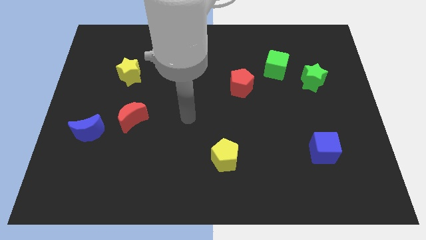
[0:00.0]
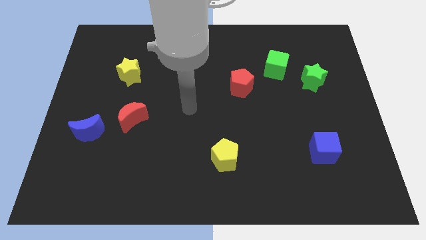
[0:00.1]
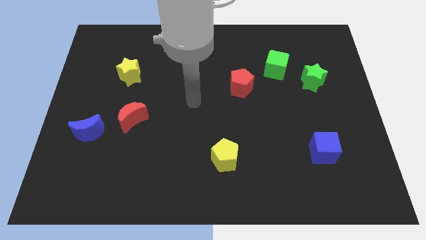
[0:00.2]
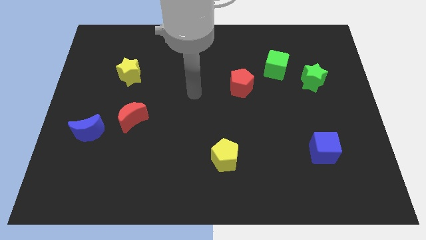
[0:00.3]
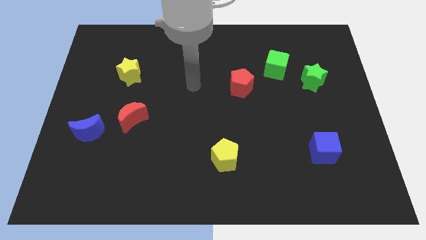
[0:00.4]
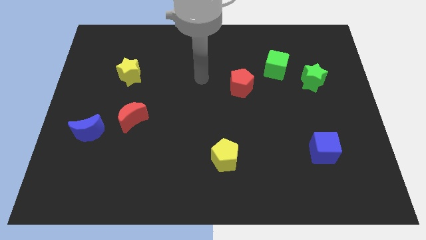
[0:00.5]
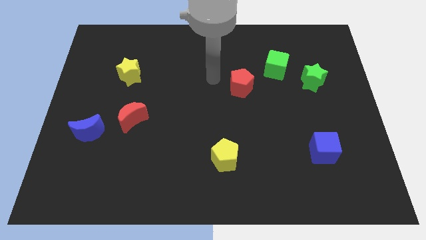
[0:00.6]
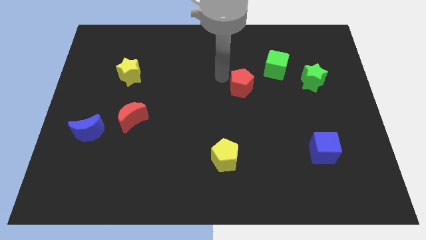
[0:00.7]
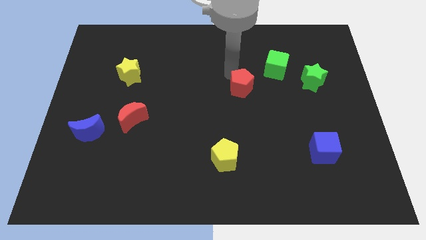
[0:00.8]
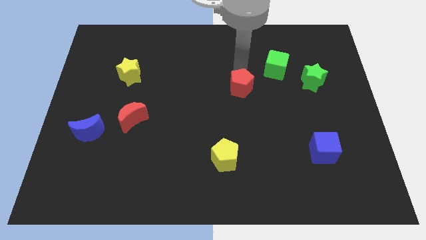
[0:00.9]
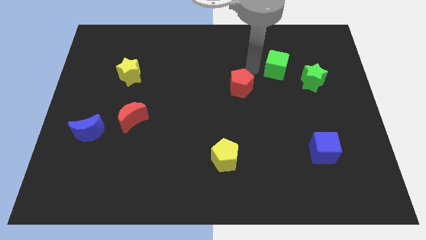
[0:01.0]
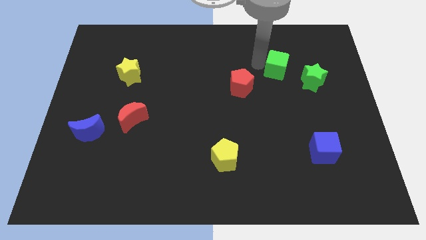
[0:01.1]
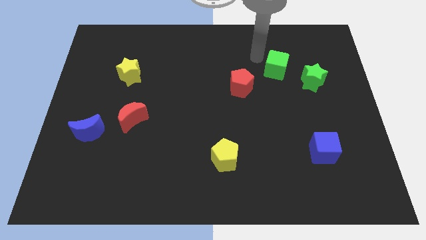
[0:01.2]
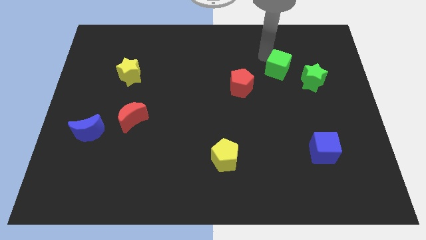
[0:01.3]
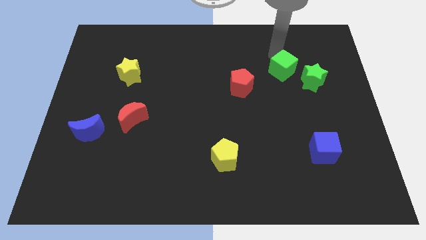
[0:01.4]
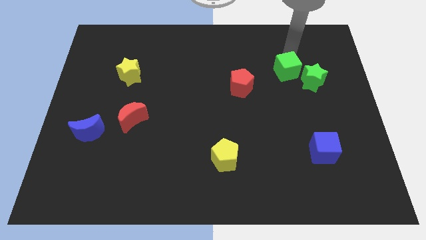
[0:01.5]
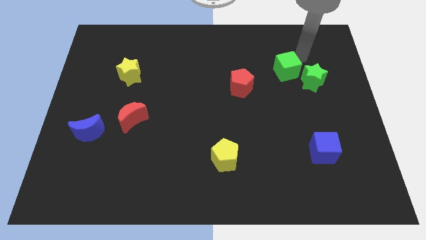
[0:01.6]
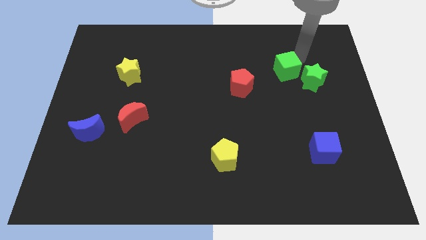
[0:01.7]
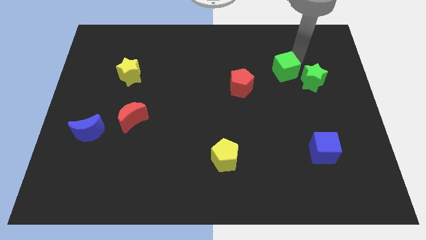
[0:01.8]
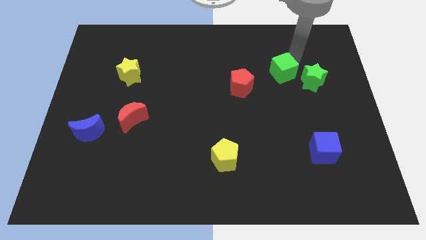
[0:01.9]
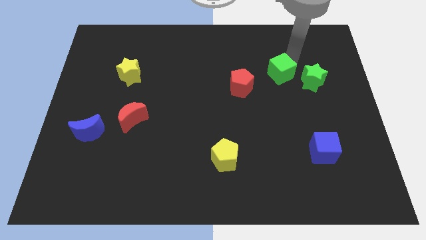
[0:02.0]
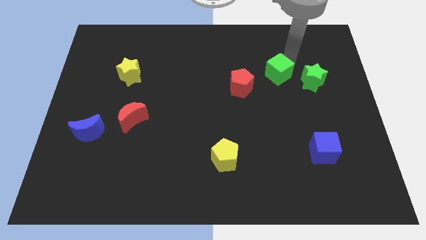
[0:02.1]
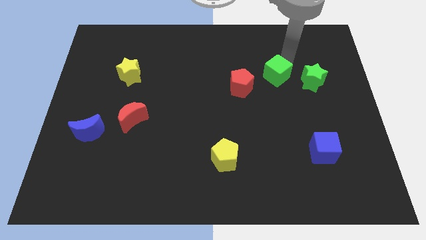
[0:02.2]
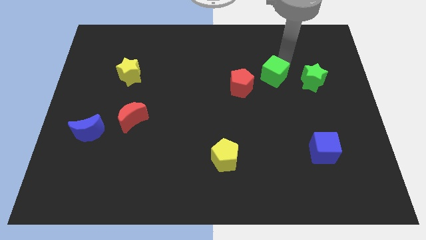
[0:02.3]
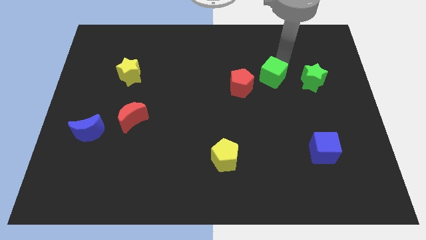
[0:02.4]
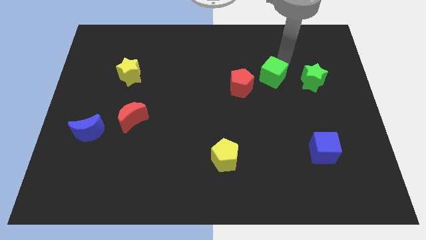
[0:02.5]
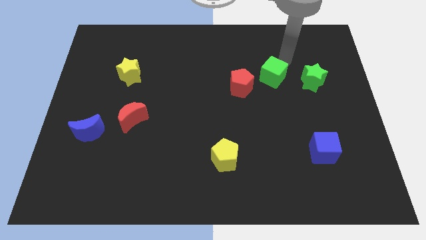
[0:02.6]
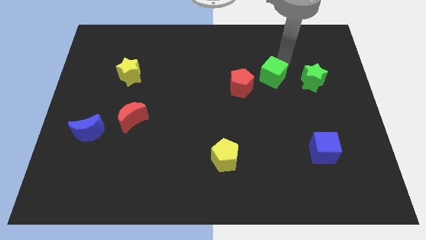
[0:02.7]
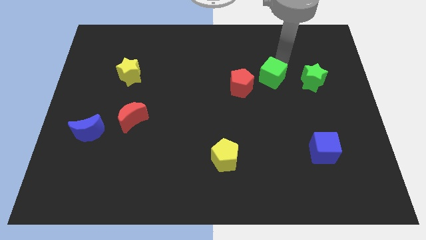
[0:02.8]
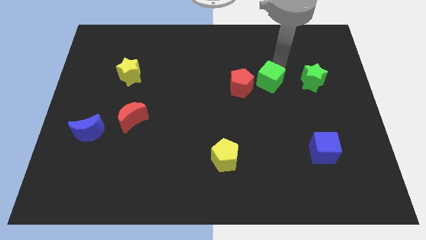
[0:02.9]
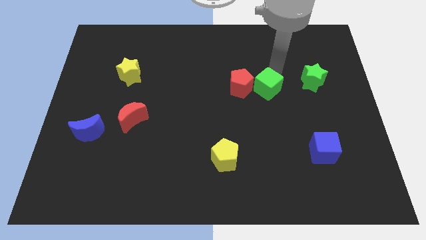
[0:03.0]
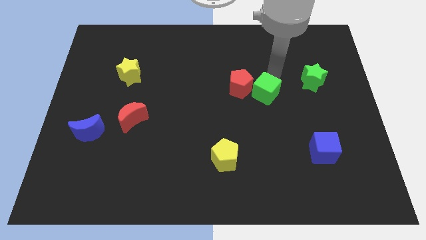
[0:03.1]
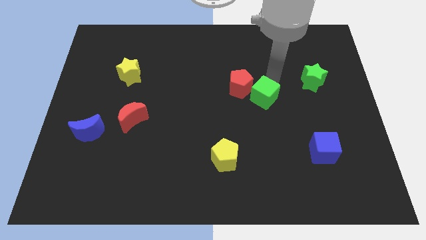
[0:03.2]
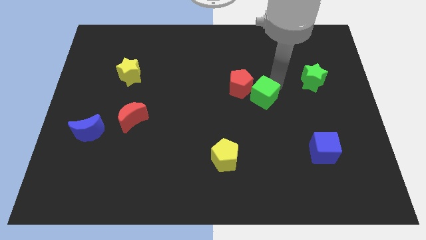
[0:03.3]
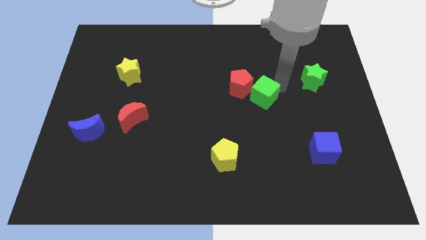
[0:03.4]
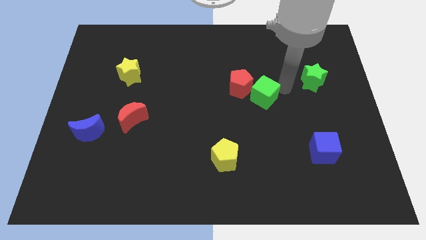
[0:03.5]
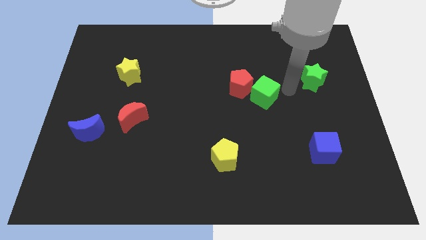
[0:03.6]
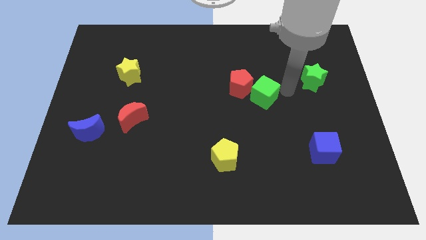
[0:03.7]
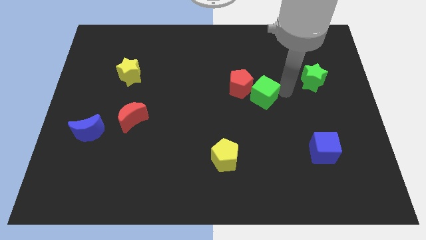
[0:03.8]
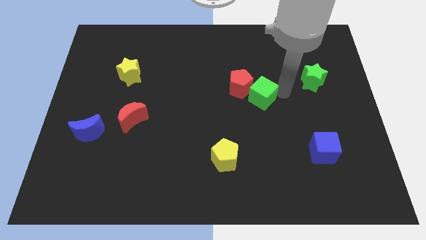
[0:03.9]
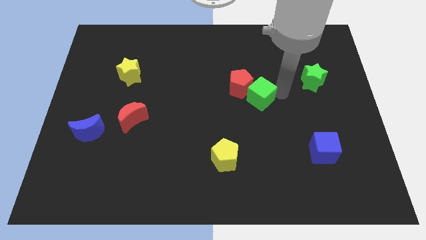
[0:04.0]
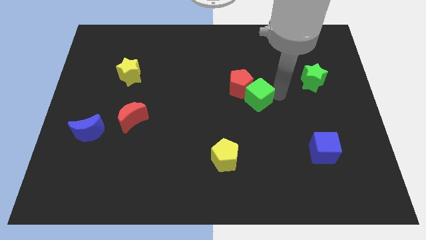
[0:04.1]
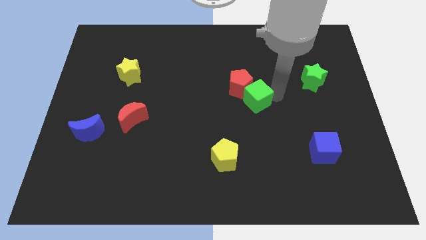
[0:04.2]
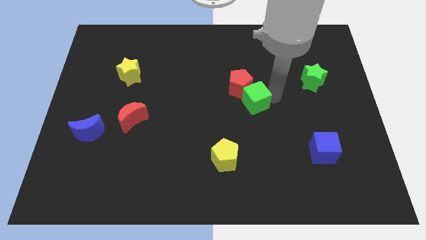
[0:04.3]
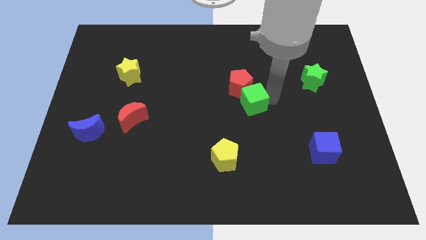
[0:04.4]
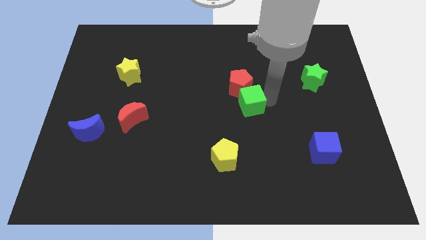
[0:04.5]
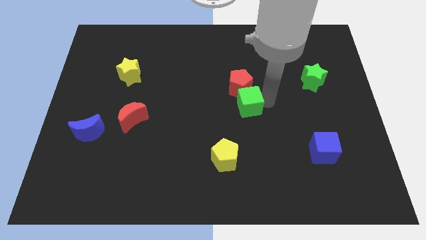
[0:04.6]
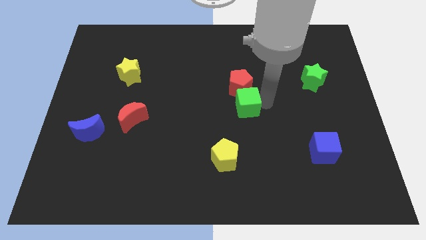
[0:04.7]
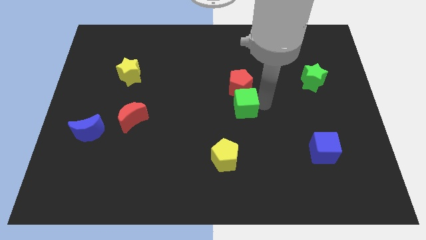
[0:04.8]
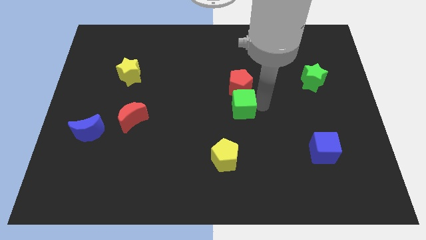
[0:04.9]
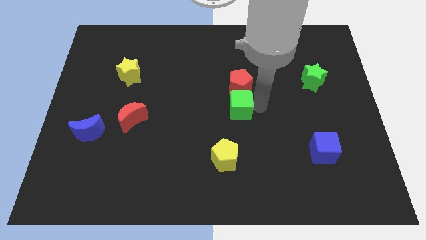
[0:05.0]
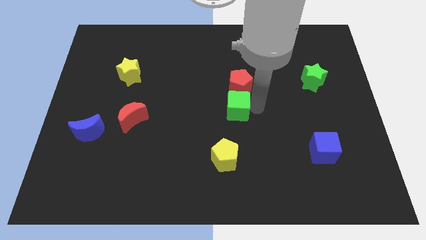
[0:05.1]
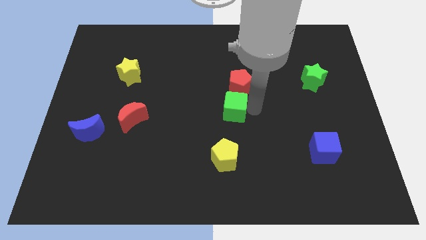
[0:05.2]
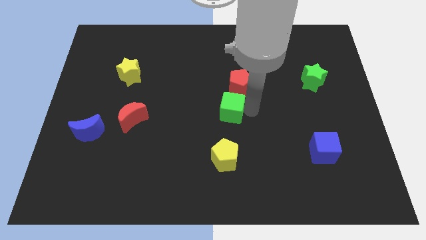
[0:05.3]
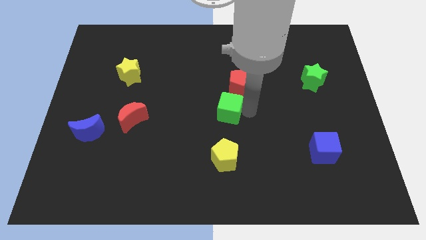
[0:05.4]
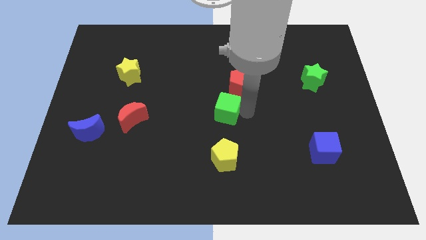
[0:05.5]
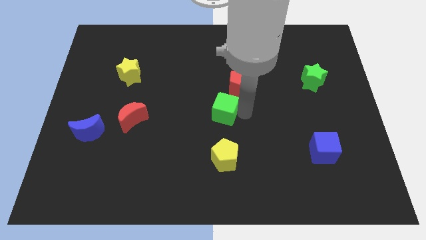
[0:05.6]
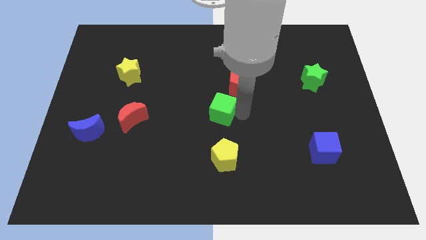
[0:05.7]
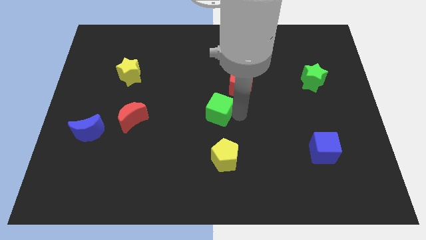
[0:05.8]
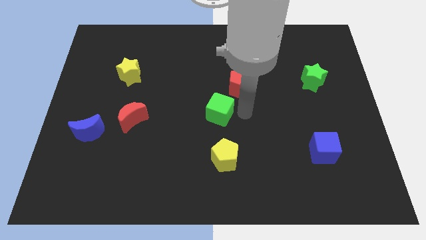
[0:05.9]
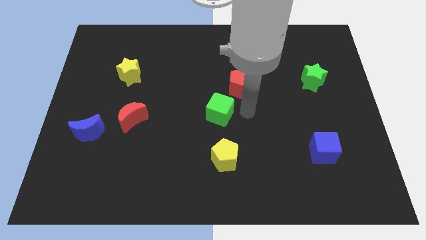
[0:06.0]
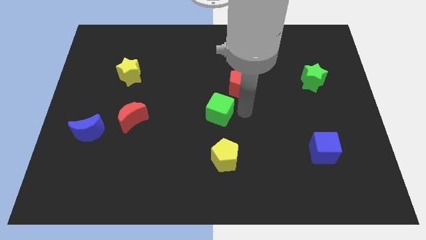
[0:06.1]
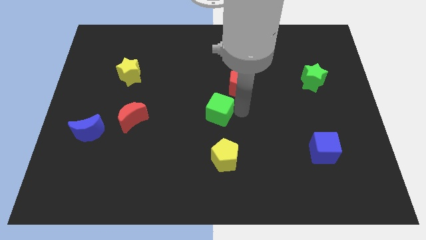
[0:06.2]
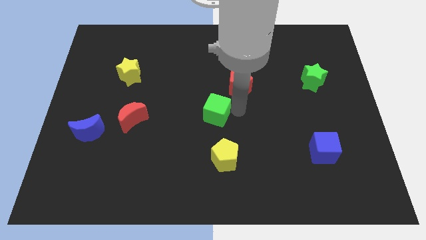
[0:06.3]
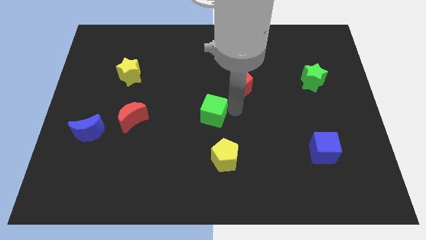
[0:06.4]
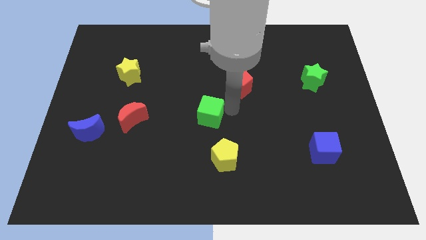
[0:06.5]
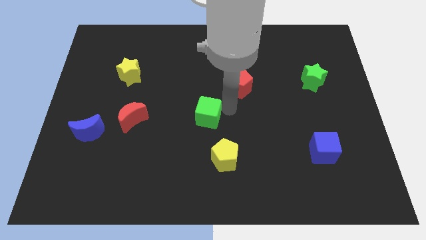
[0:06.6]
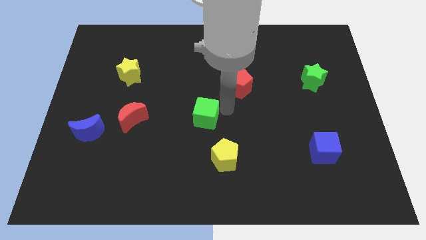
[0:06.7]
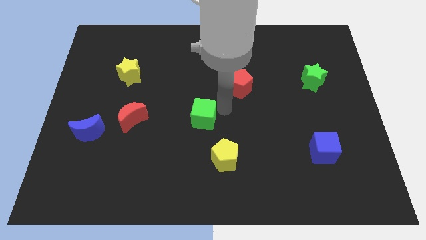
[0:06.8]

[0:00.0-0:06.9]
slide the green cube to the right of the red moon

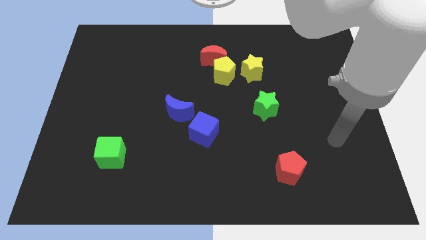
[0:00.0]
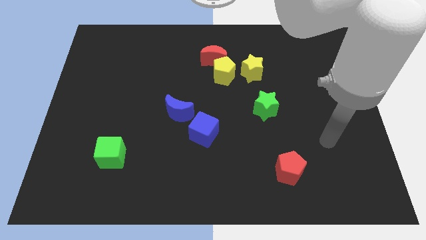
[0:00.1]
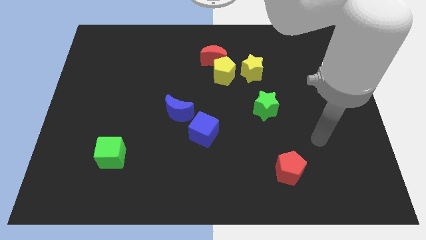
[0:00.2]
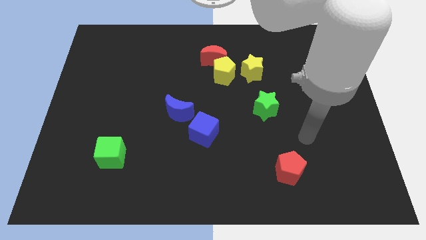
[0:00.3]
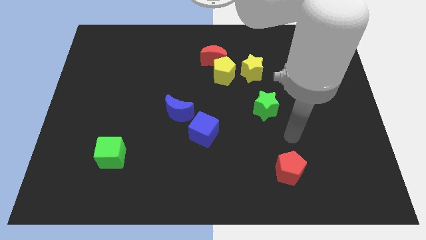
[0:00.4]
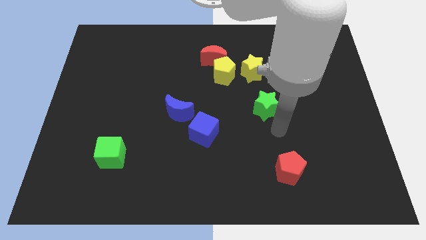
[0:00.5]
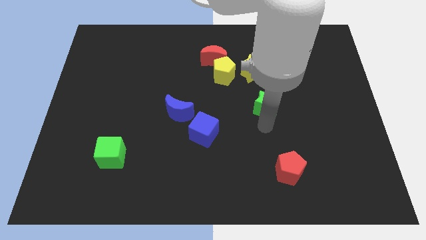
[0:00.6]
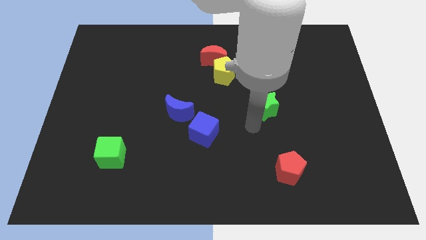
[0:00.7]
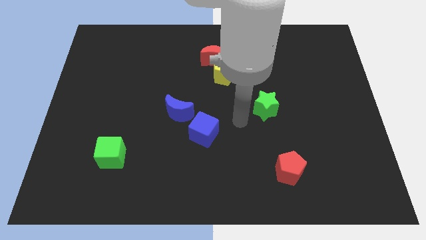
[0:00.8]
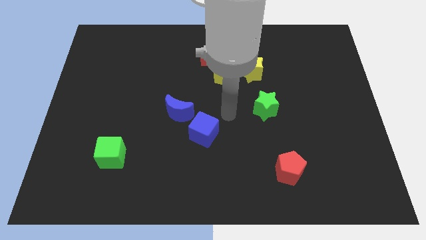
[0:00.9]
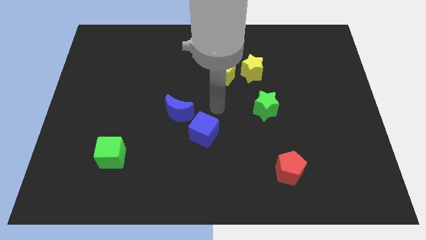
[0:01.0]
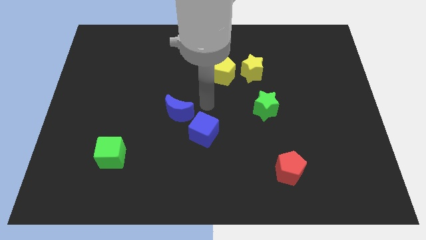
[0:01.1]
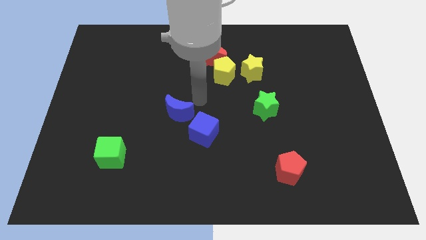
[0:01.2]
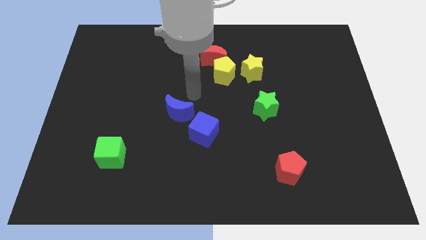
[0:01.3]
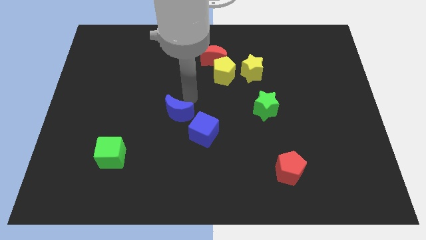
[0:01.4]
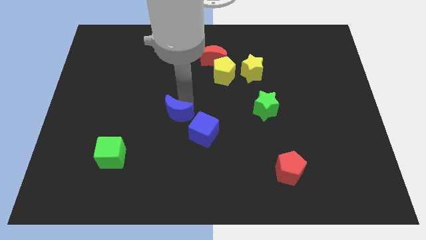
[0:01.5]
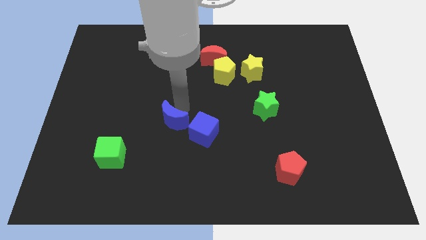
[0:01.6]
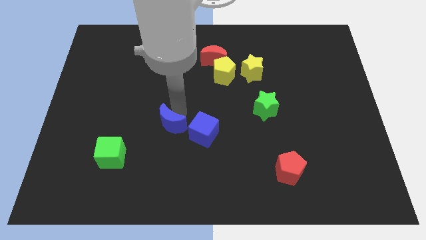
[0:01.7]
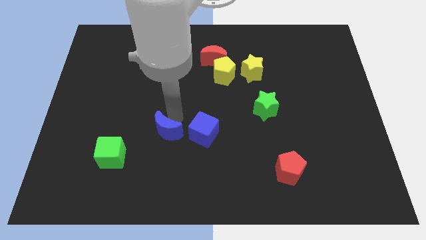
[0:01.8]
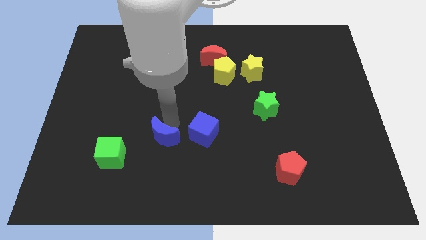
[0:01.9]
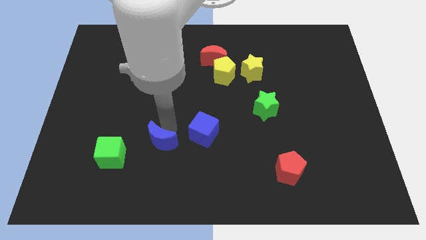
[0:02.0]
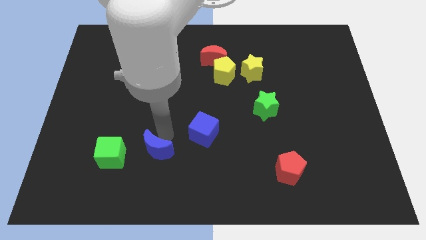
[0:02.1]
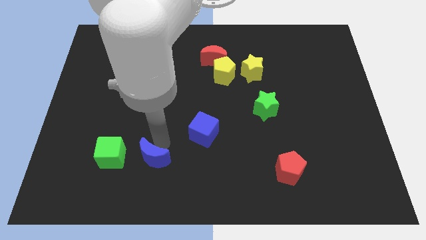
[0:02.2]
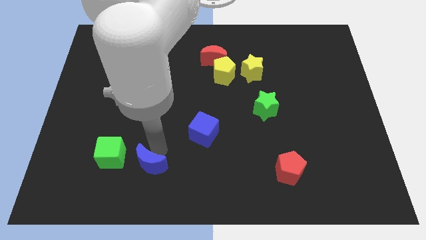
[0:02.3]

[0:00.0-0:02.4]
slide the blue moon to the bottom right side of the green cube
